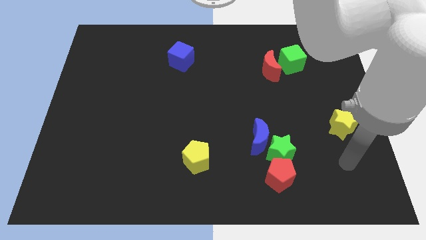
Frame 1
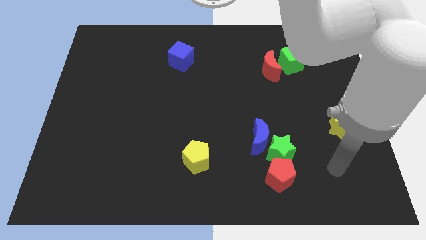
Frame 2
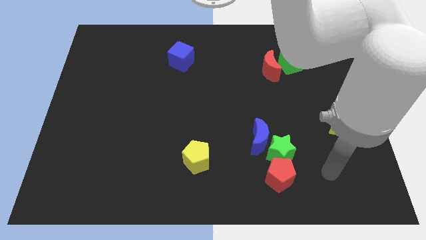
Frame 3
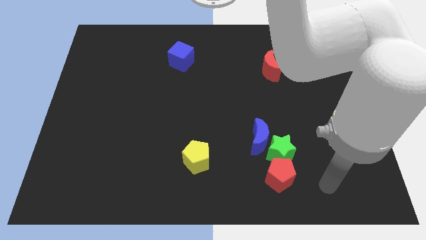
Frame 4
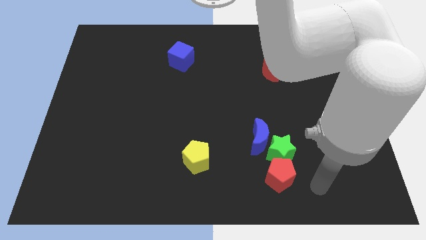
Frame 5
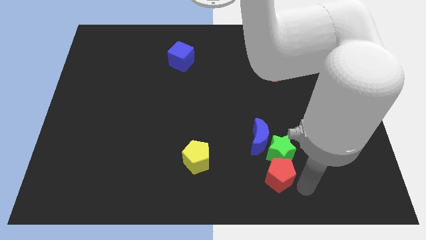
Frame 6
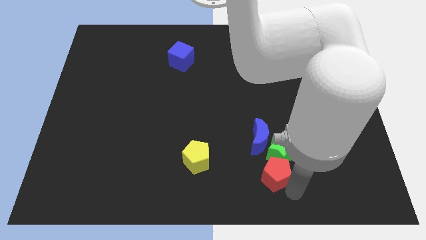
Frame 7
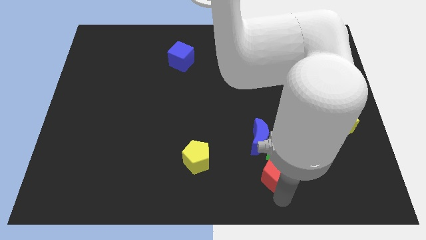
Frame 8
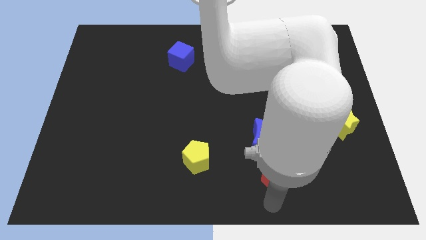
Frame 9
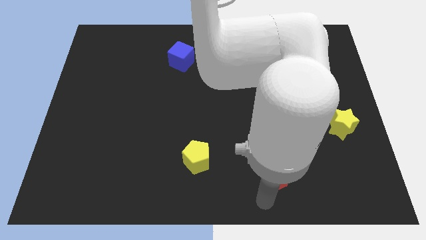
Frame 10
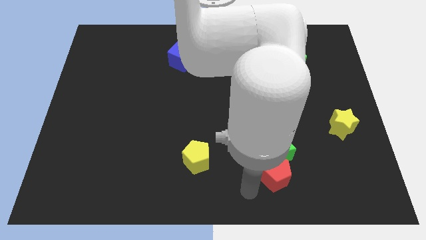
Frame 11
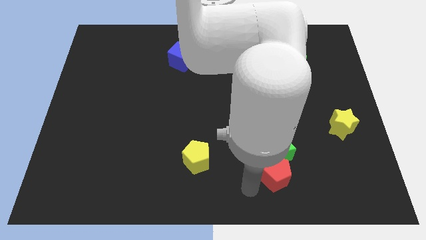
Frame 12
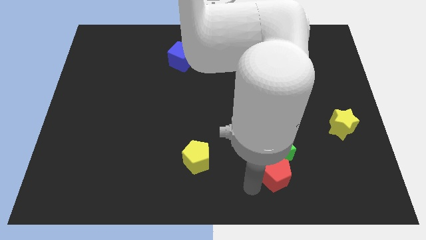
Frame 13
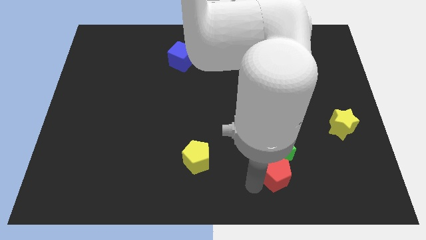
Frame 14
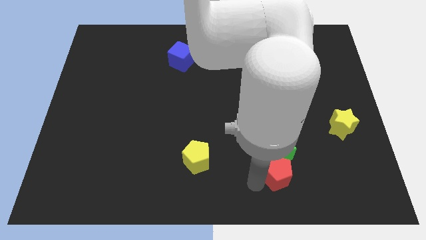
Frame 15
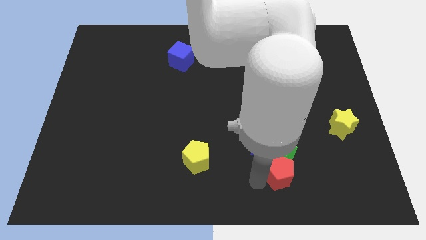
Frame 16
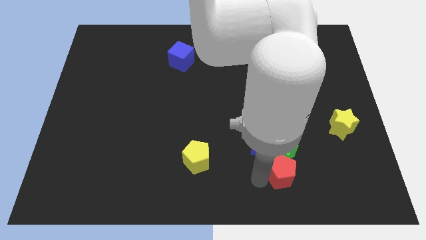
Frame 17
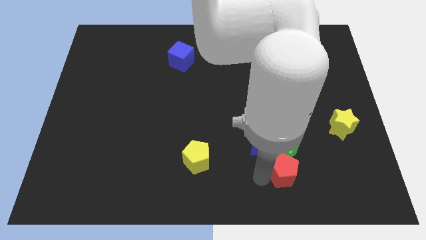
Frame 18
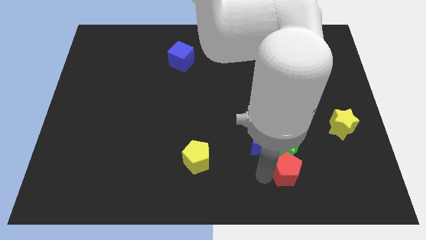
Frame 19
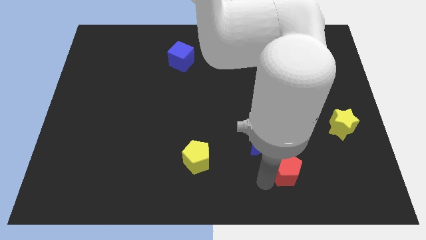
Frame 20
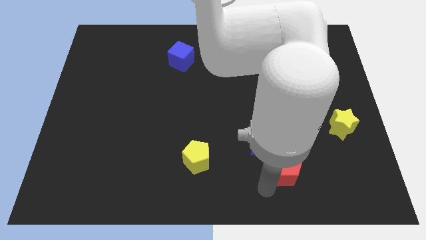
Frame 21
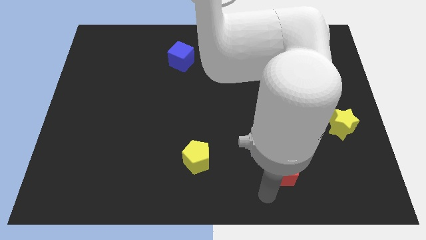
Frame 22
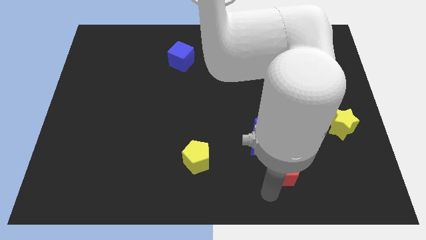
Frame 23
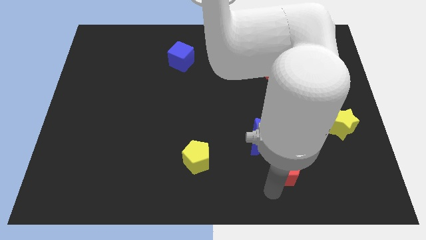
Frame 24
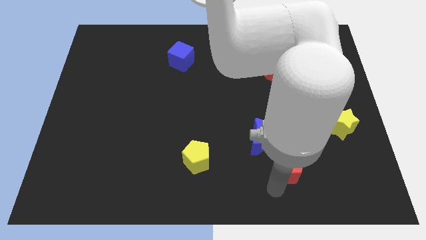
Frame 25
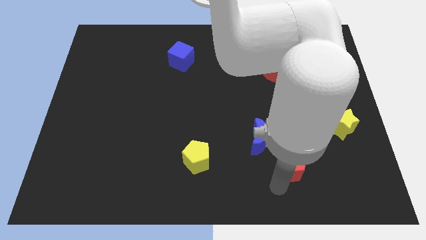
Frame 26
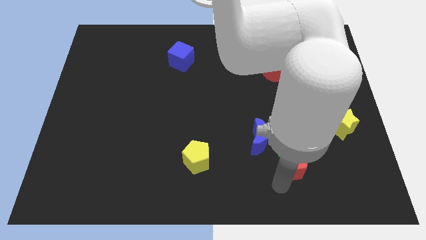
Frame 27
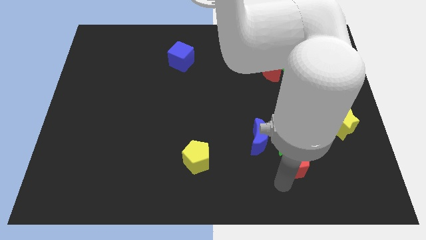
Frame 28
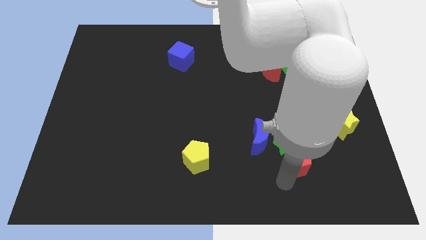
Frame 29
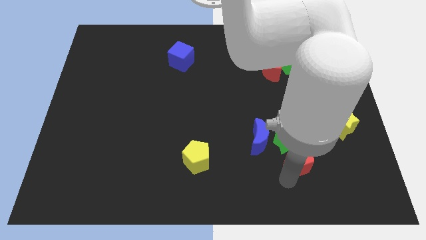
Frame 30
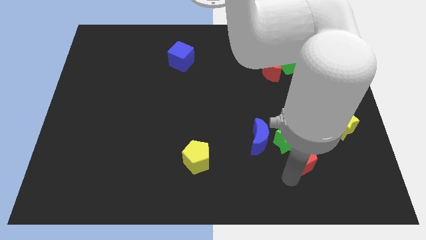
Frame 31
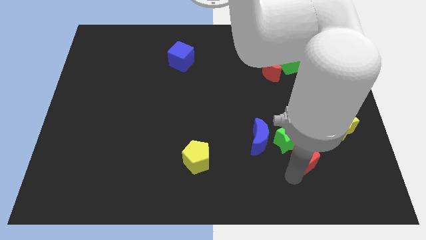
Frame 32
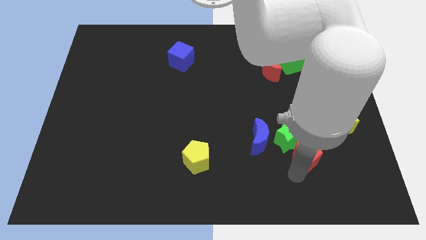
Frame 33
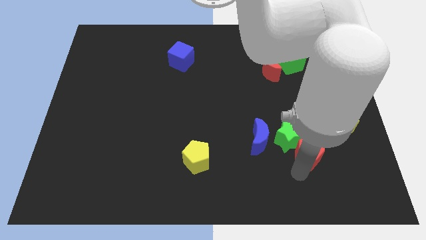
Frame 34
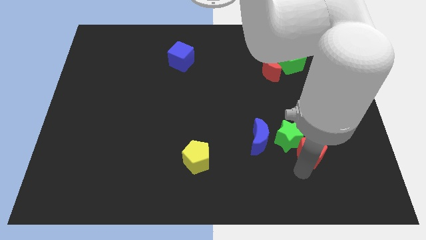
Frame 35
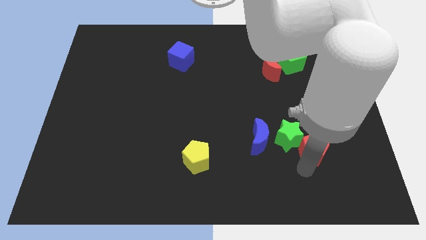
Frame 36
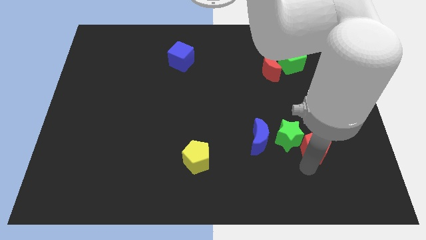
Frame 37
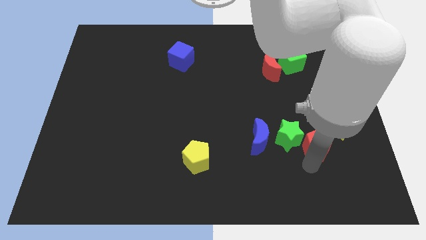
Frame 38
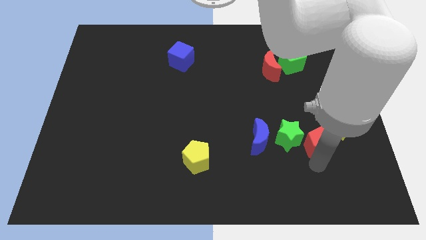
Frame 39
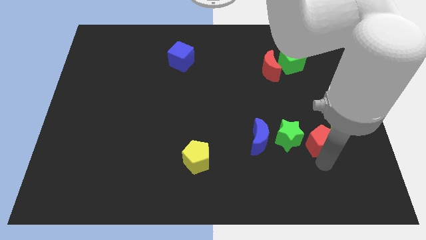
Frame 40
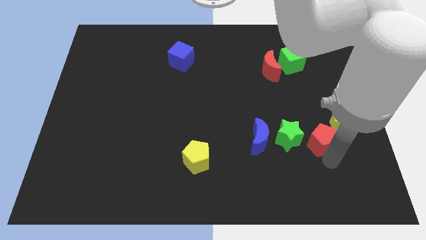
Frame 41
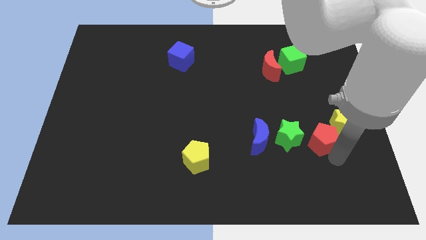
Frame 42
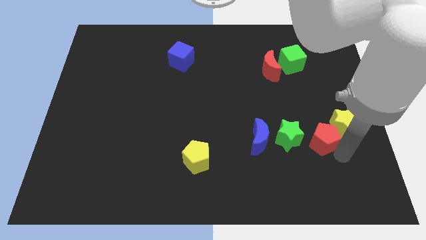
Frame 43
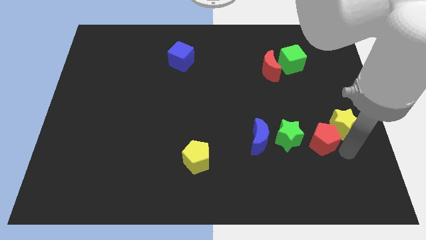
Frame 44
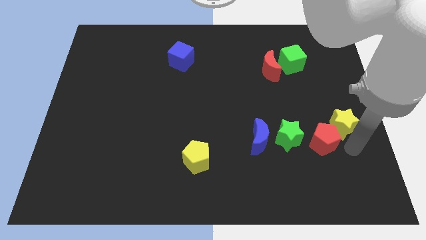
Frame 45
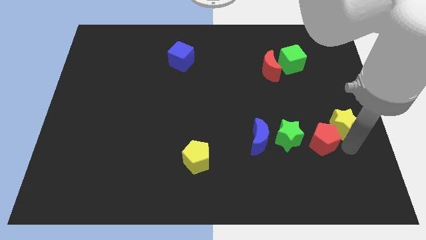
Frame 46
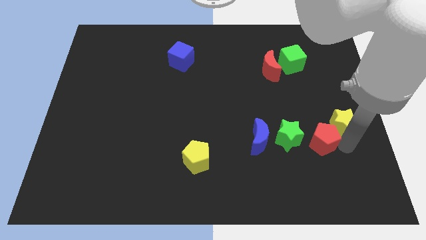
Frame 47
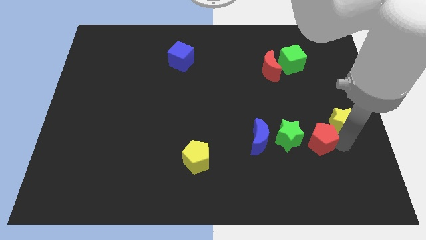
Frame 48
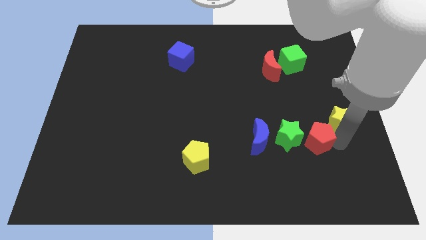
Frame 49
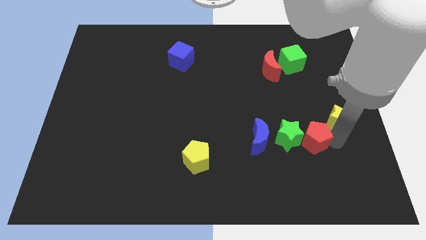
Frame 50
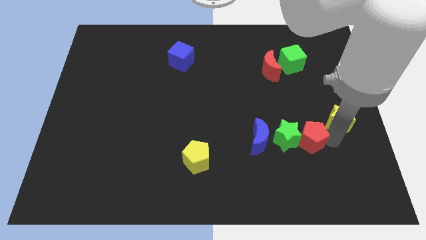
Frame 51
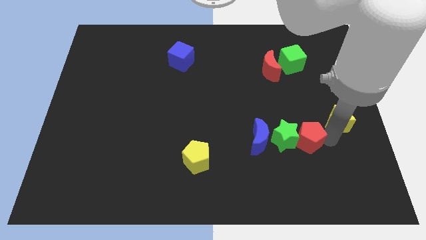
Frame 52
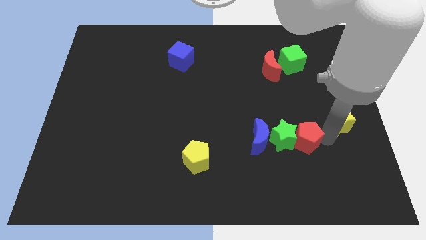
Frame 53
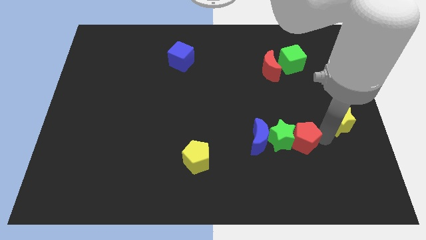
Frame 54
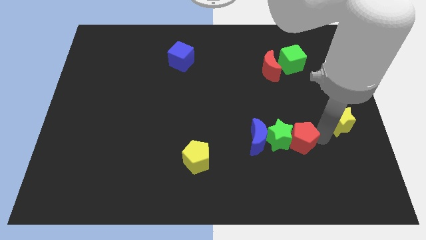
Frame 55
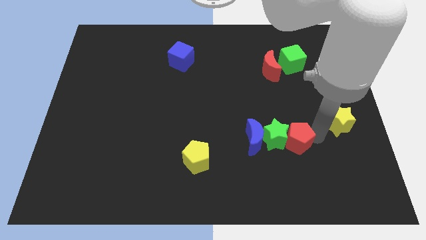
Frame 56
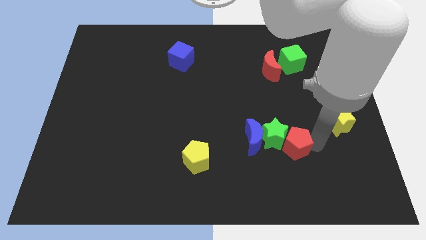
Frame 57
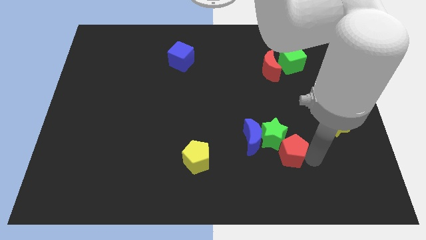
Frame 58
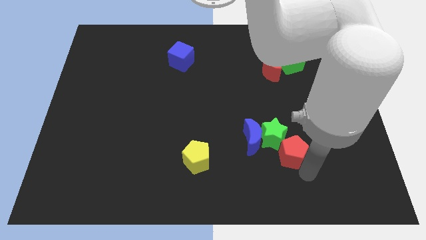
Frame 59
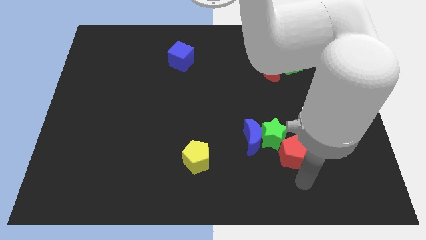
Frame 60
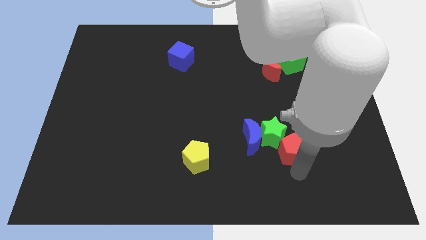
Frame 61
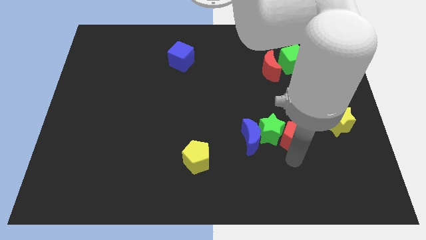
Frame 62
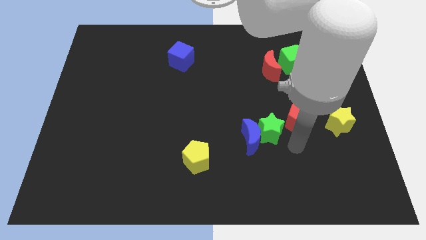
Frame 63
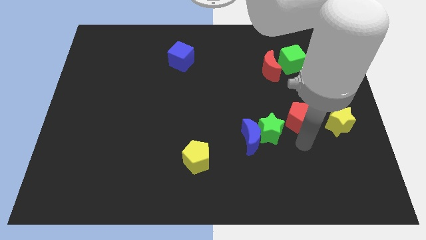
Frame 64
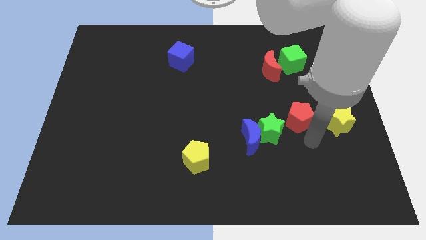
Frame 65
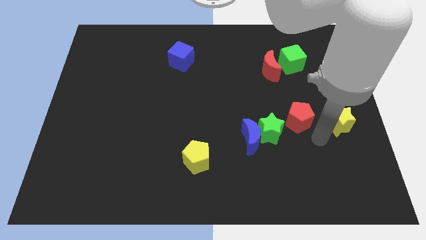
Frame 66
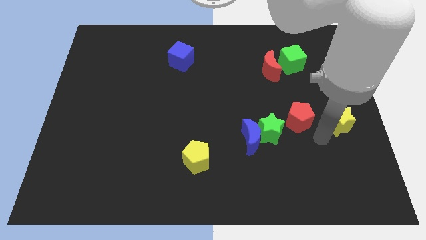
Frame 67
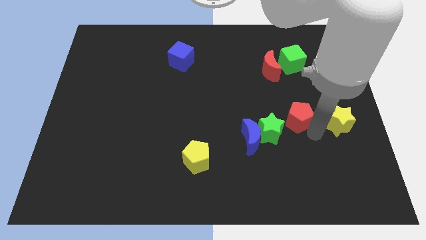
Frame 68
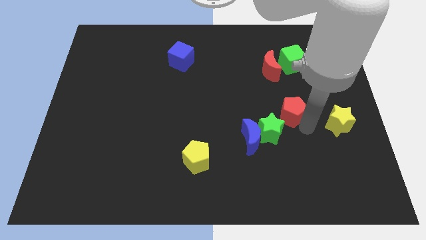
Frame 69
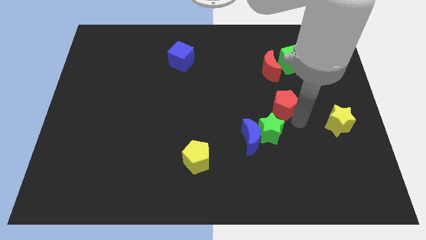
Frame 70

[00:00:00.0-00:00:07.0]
slide the red pentagon above the green star

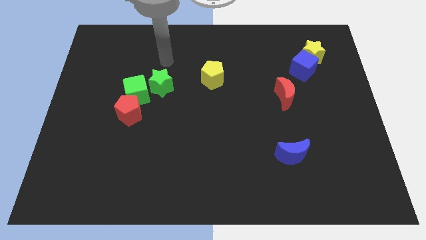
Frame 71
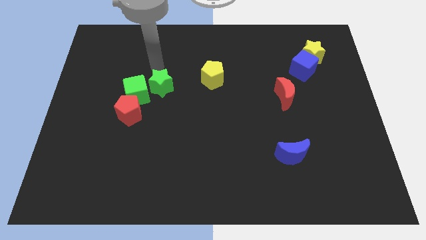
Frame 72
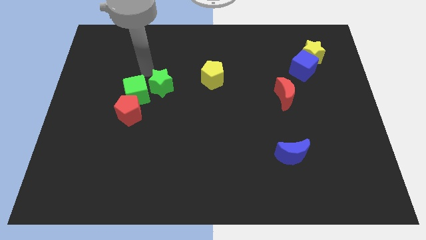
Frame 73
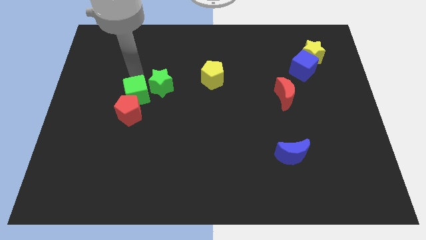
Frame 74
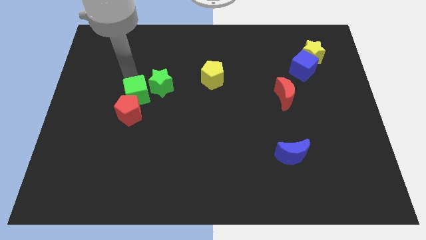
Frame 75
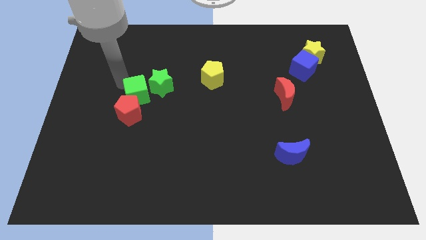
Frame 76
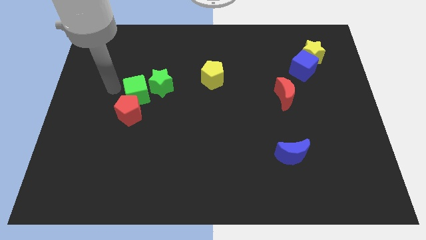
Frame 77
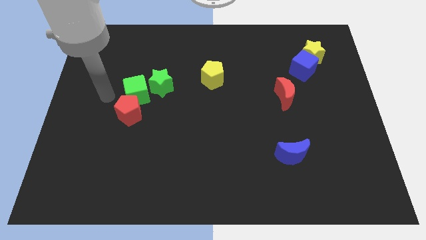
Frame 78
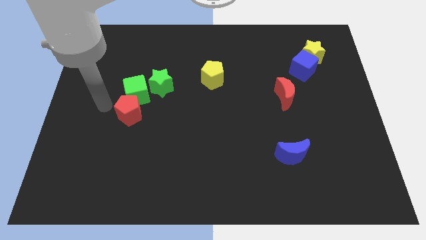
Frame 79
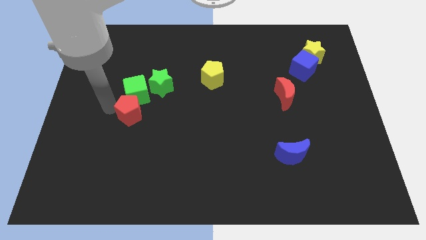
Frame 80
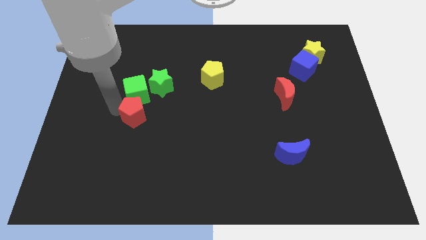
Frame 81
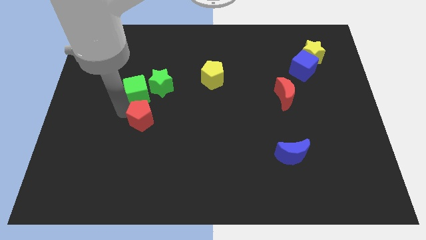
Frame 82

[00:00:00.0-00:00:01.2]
slide the red pentagon to the bottom of the green star
